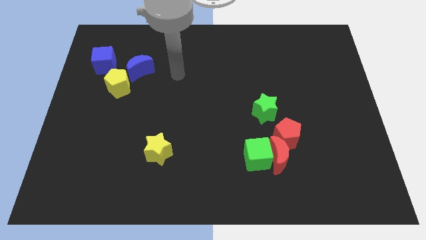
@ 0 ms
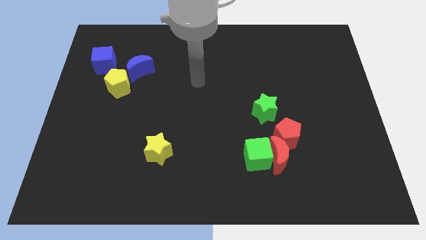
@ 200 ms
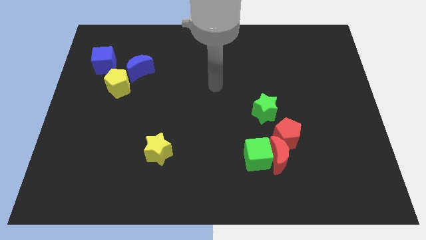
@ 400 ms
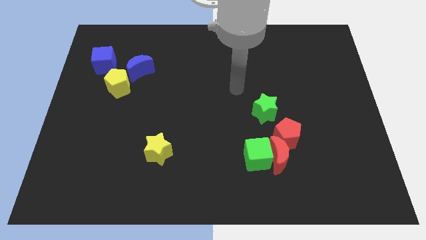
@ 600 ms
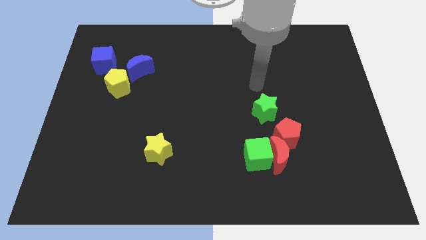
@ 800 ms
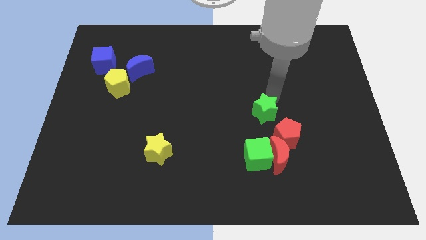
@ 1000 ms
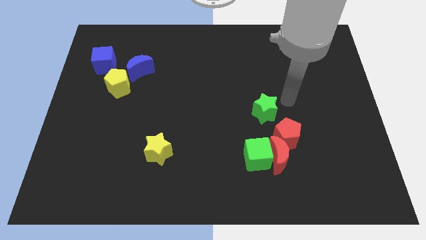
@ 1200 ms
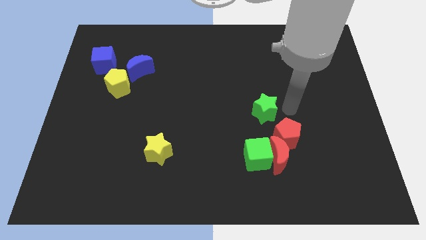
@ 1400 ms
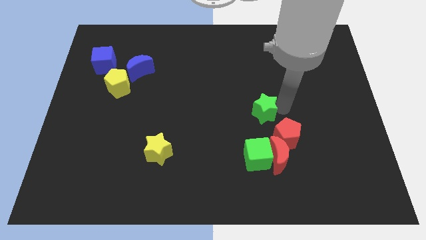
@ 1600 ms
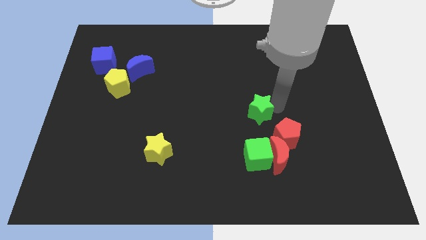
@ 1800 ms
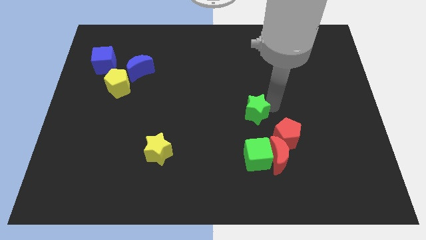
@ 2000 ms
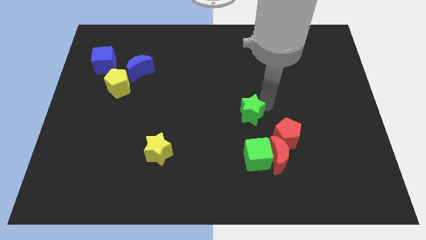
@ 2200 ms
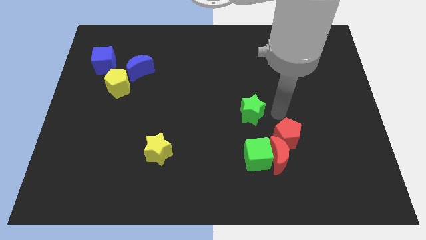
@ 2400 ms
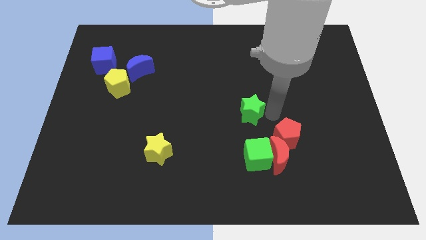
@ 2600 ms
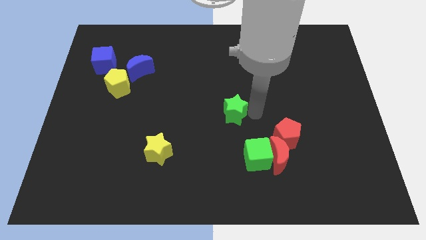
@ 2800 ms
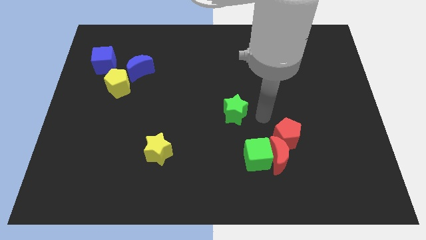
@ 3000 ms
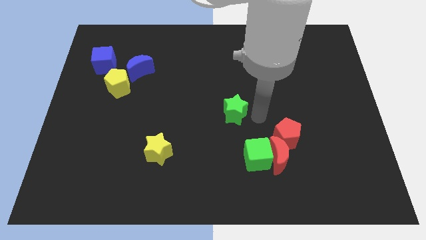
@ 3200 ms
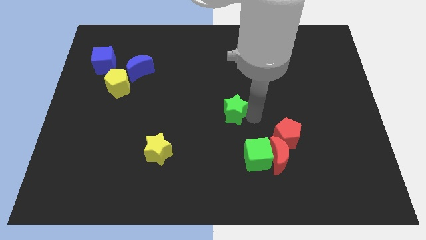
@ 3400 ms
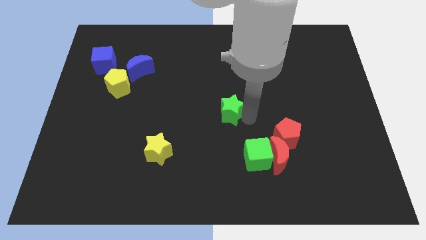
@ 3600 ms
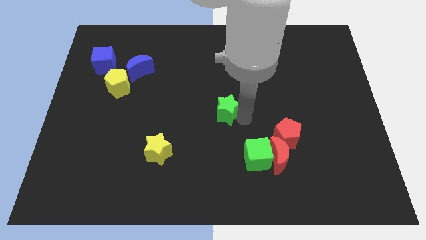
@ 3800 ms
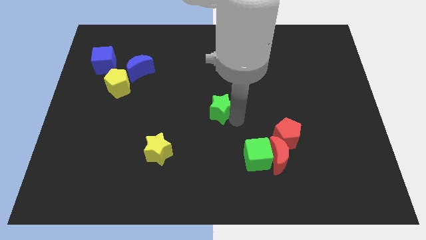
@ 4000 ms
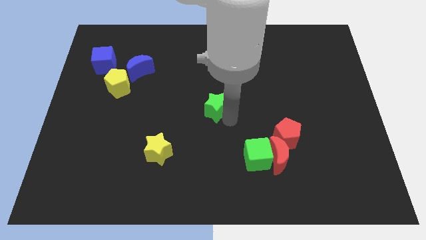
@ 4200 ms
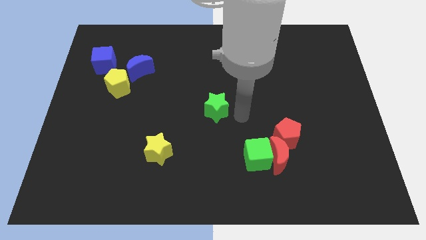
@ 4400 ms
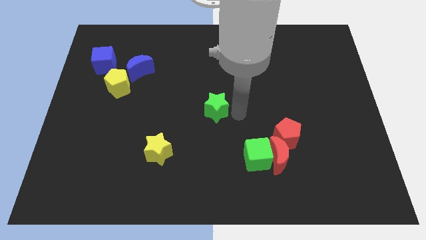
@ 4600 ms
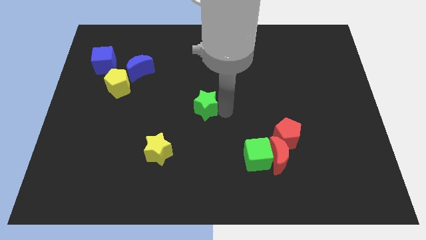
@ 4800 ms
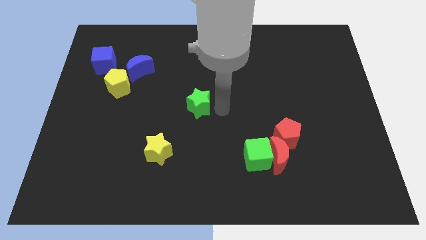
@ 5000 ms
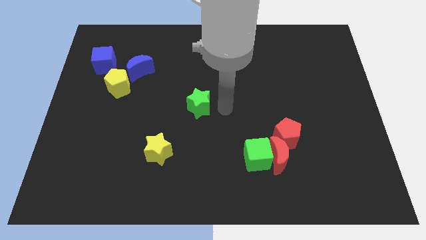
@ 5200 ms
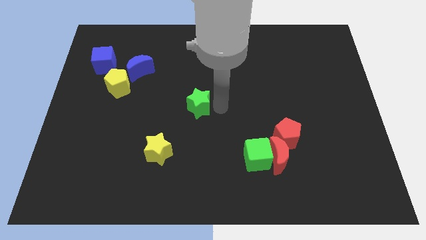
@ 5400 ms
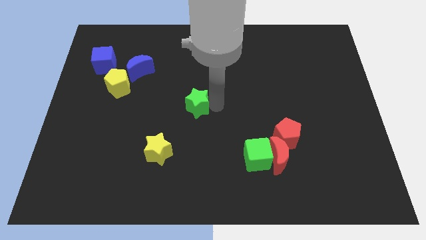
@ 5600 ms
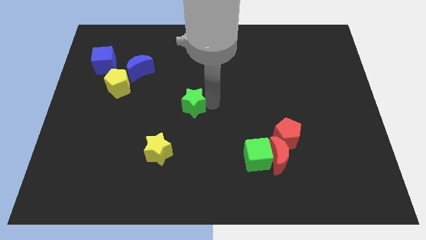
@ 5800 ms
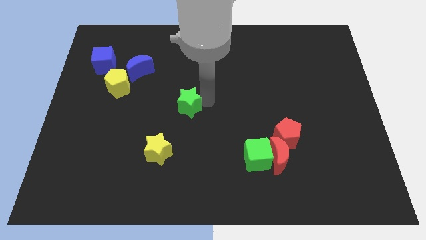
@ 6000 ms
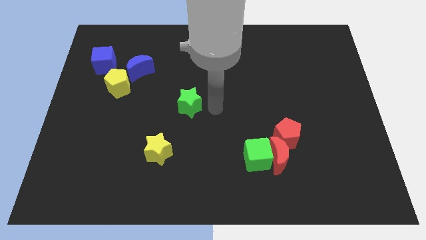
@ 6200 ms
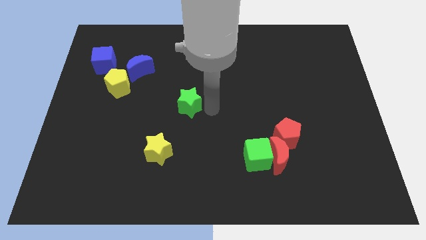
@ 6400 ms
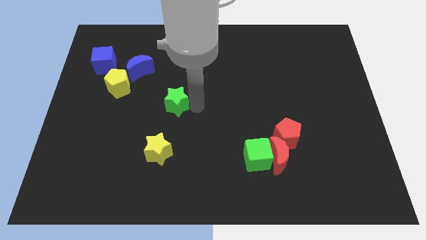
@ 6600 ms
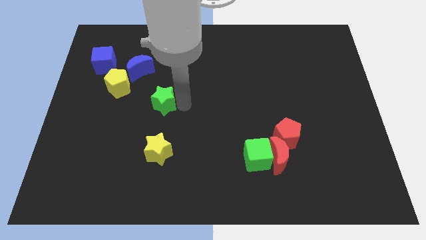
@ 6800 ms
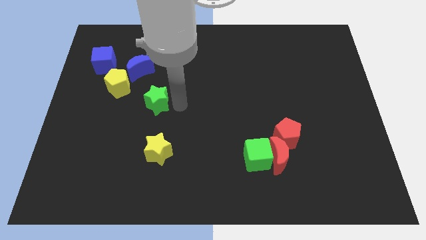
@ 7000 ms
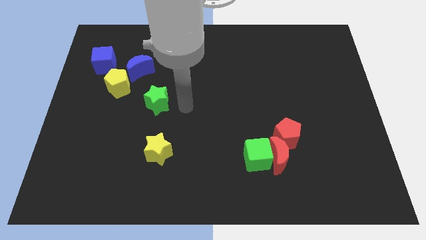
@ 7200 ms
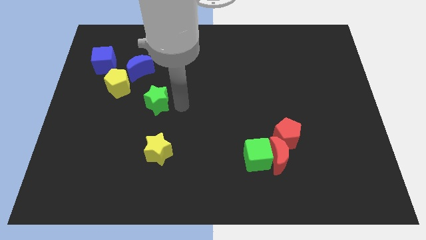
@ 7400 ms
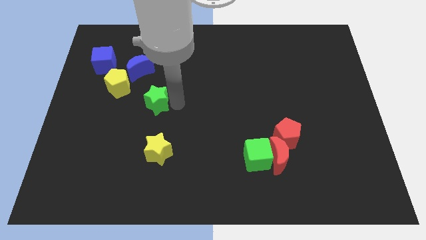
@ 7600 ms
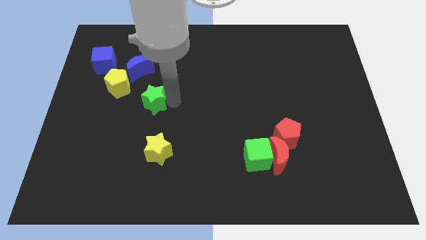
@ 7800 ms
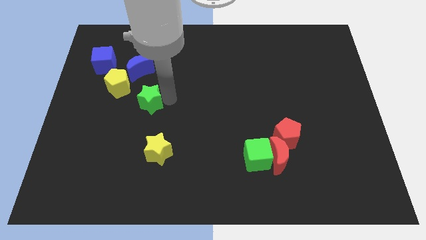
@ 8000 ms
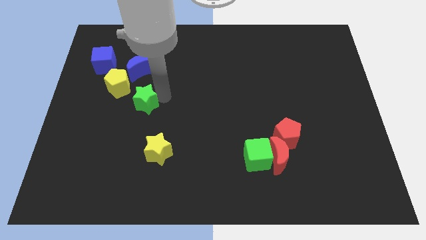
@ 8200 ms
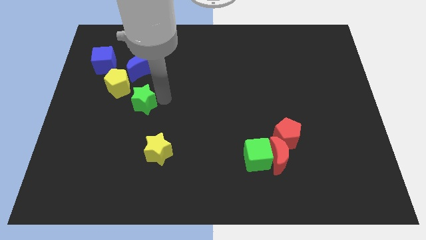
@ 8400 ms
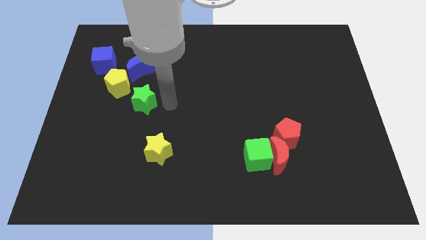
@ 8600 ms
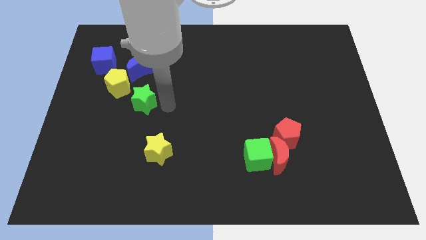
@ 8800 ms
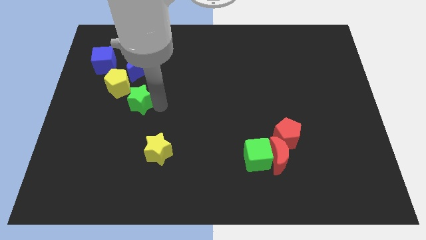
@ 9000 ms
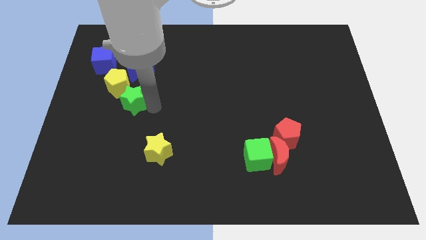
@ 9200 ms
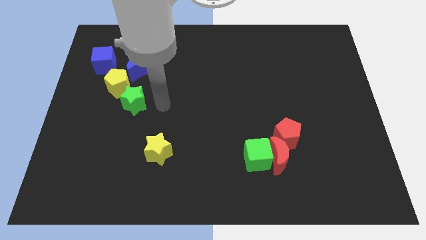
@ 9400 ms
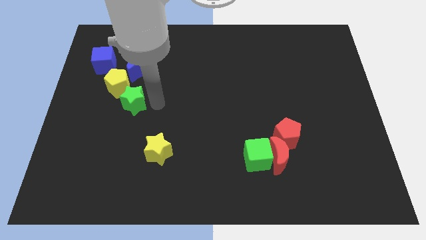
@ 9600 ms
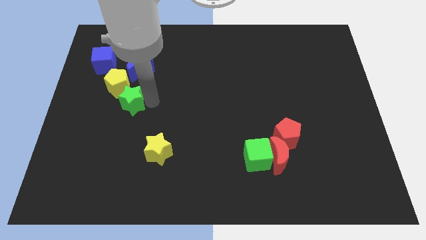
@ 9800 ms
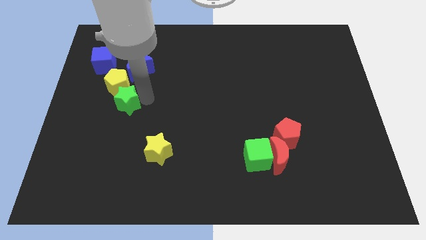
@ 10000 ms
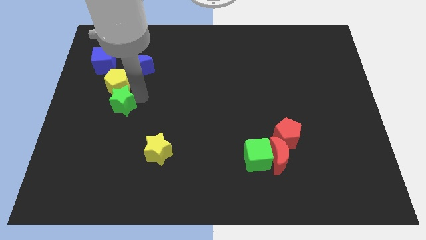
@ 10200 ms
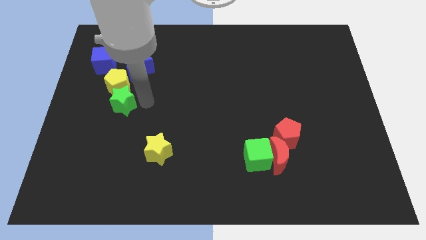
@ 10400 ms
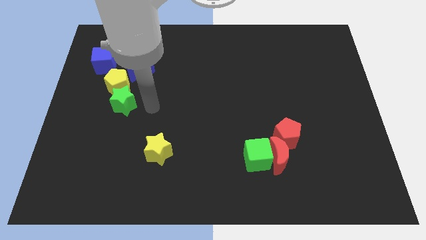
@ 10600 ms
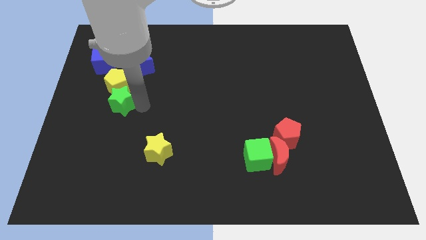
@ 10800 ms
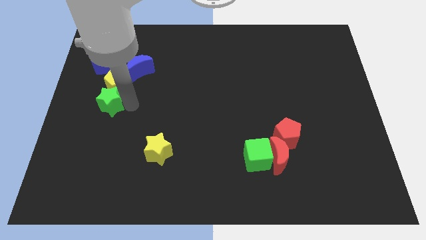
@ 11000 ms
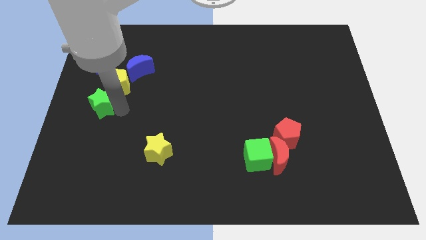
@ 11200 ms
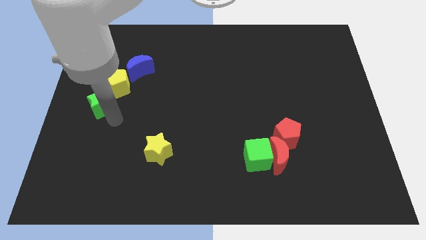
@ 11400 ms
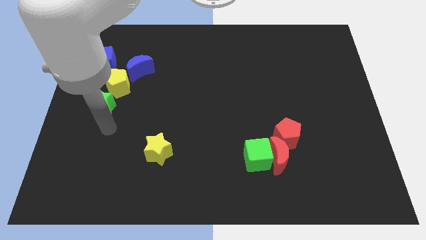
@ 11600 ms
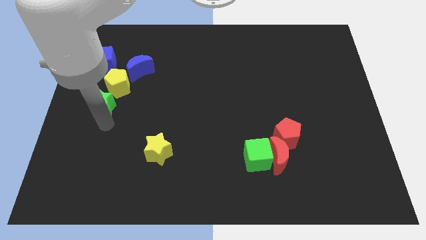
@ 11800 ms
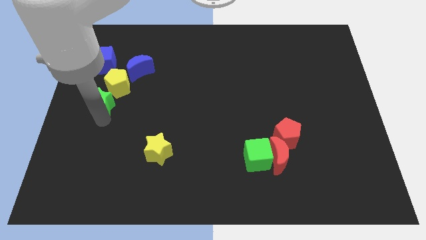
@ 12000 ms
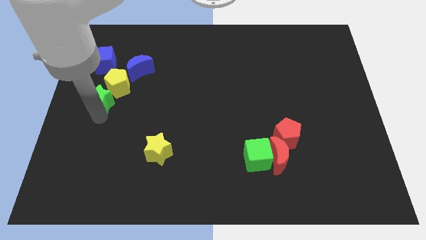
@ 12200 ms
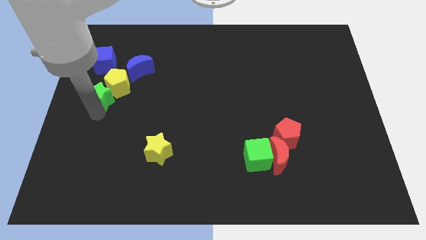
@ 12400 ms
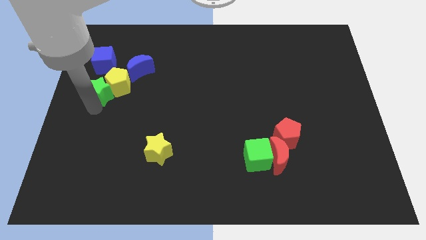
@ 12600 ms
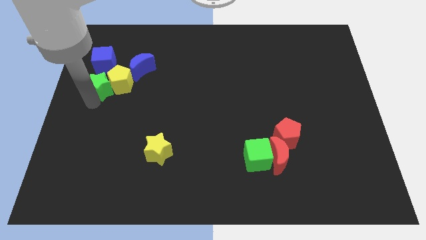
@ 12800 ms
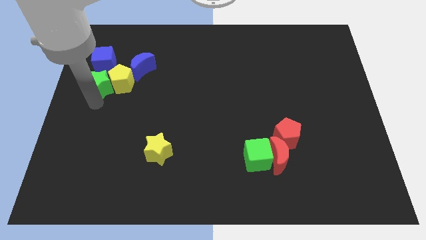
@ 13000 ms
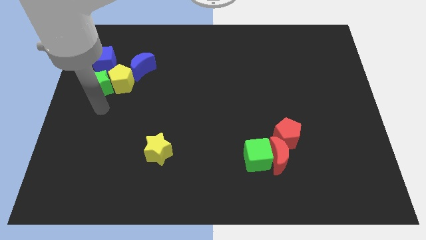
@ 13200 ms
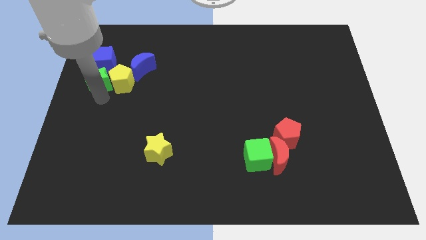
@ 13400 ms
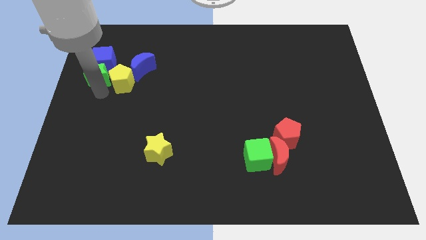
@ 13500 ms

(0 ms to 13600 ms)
push the green star left of the blue moon
